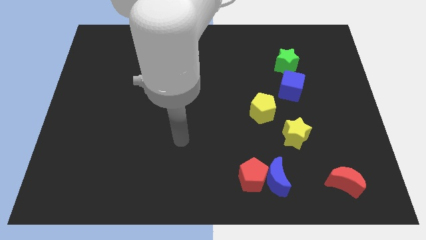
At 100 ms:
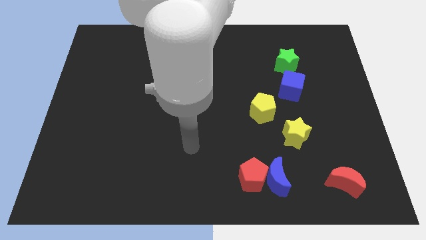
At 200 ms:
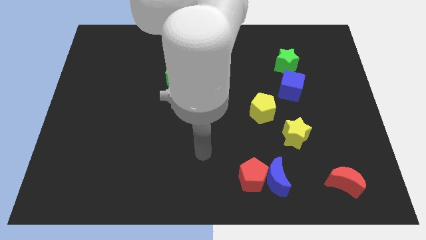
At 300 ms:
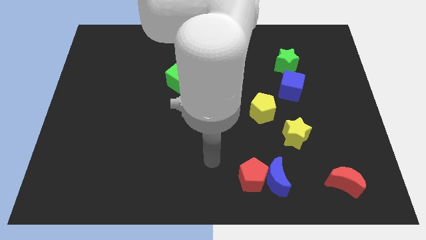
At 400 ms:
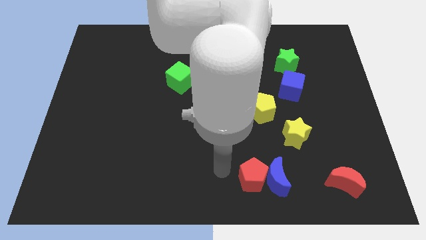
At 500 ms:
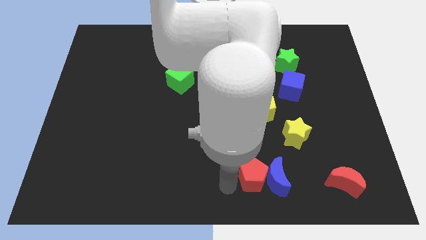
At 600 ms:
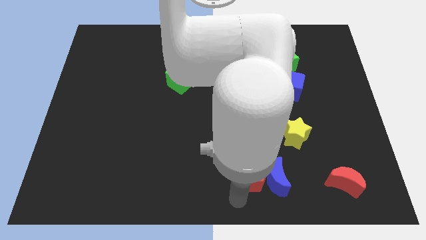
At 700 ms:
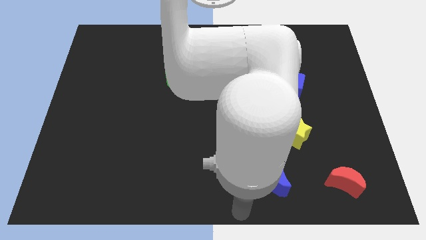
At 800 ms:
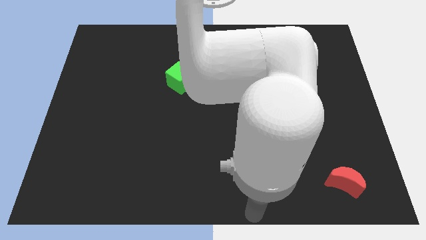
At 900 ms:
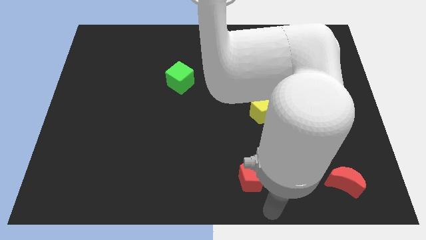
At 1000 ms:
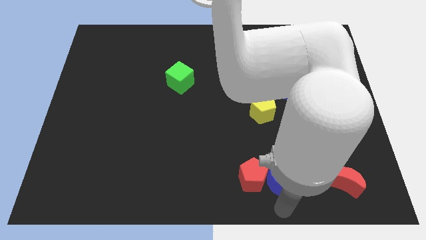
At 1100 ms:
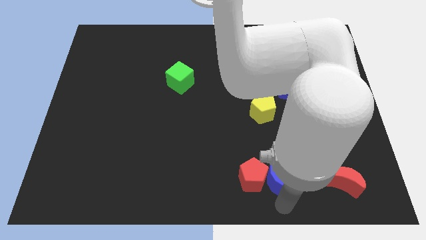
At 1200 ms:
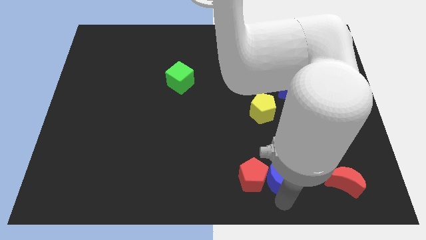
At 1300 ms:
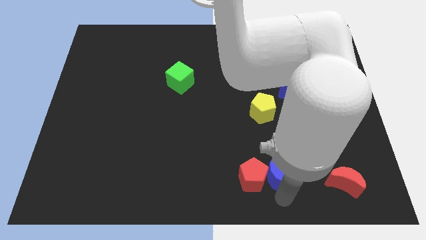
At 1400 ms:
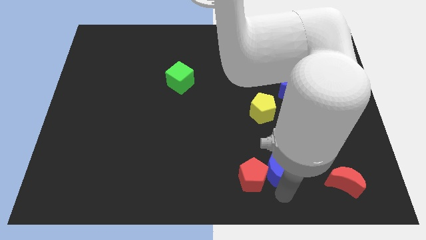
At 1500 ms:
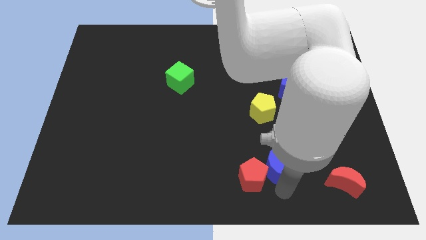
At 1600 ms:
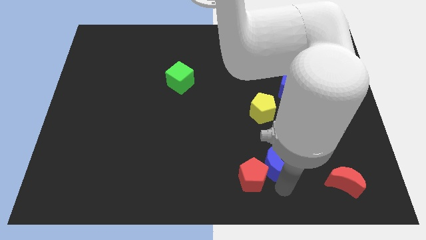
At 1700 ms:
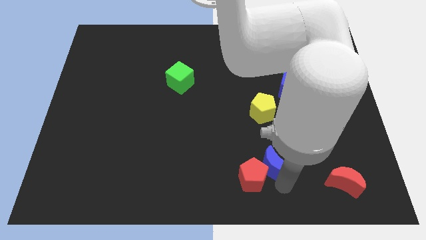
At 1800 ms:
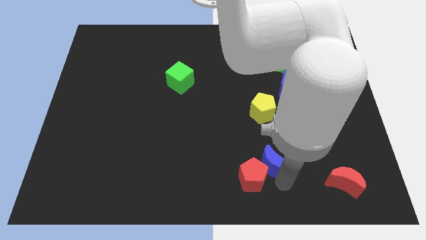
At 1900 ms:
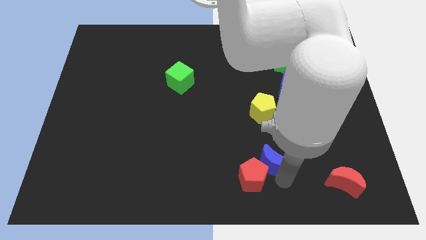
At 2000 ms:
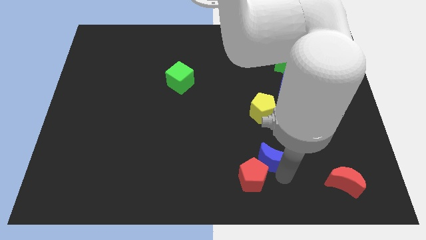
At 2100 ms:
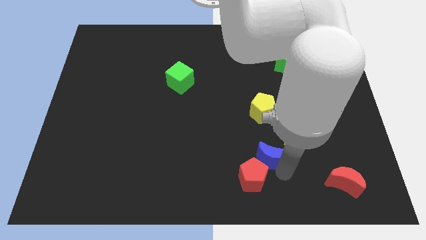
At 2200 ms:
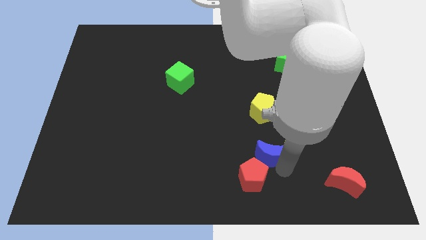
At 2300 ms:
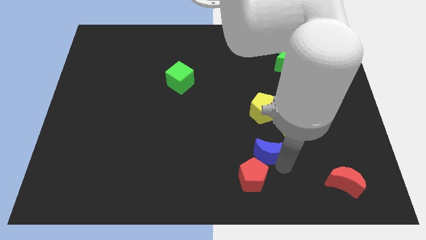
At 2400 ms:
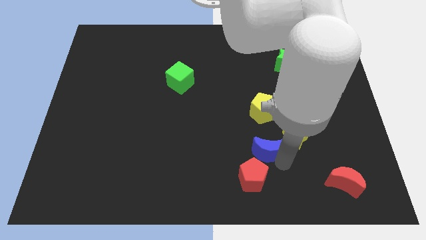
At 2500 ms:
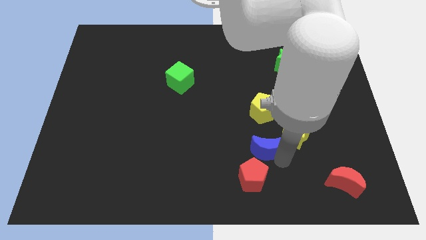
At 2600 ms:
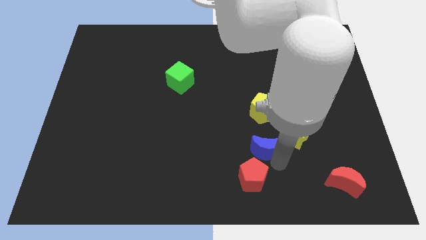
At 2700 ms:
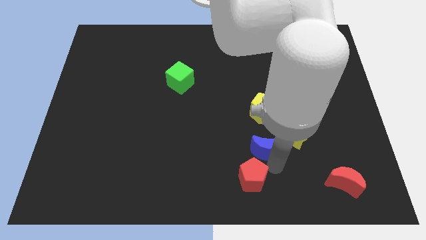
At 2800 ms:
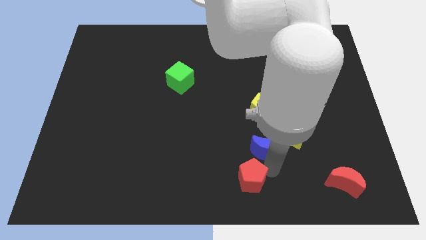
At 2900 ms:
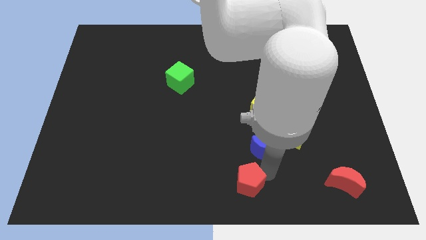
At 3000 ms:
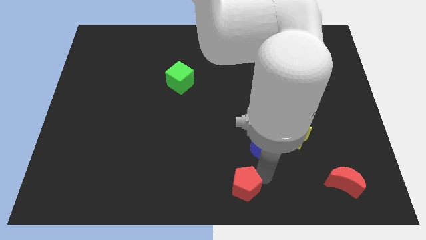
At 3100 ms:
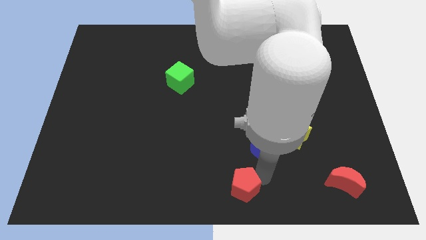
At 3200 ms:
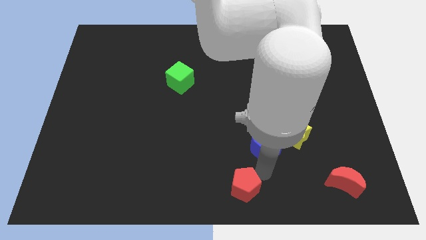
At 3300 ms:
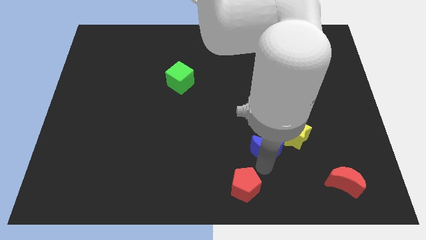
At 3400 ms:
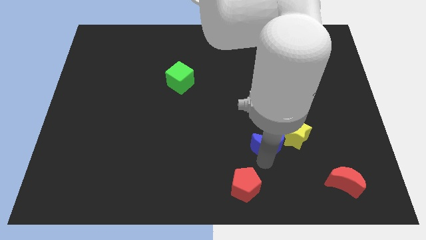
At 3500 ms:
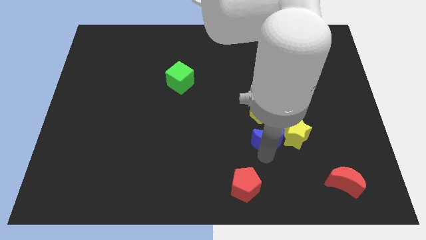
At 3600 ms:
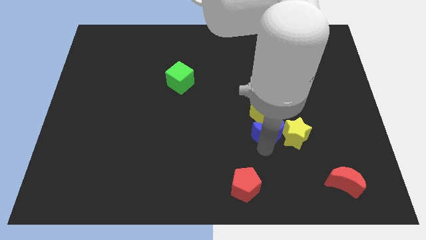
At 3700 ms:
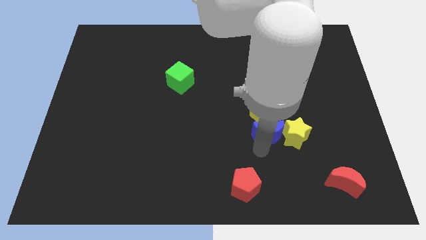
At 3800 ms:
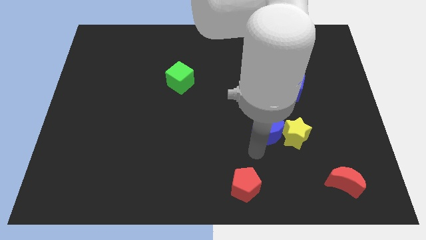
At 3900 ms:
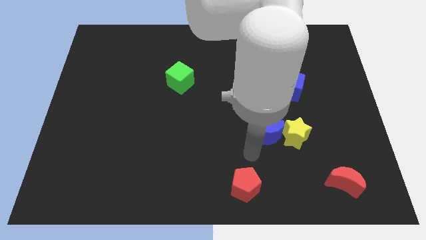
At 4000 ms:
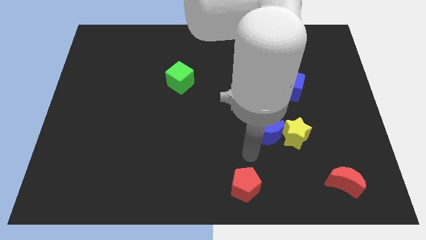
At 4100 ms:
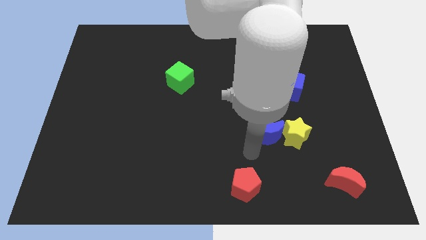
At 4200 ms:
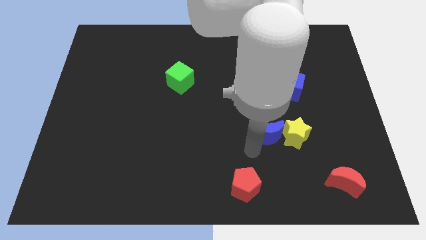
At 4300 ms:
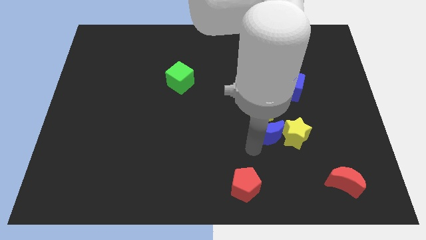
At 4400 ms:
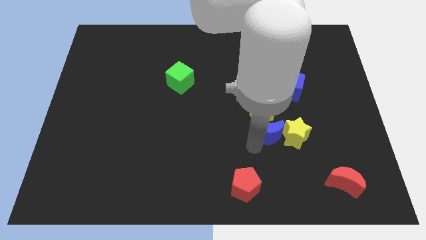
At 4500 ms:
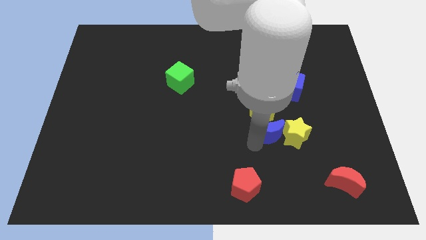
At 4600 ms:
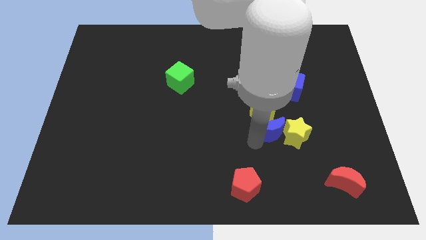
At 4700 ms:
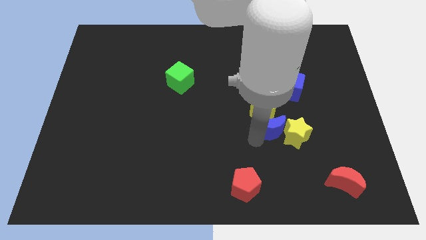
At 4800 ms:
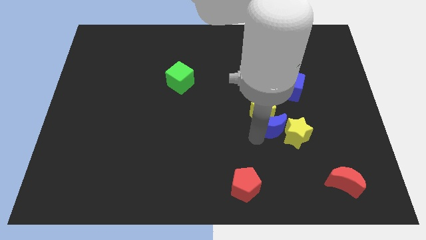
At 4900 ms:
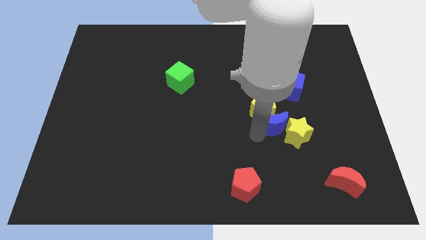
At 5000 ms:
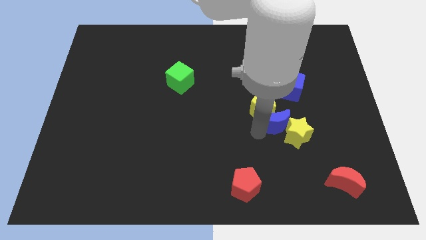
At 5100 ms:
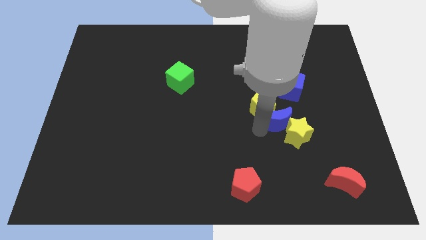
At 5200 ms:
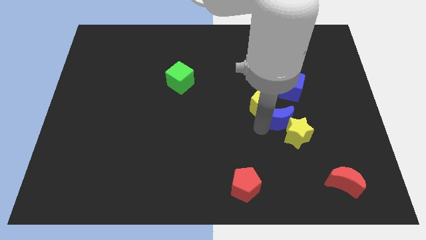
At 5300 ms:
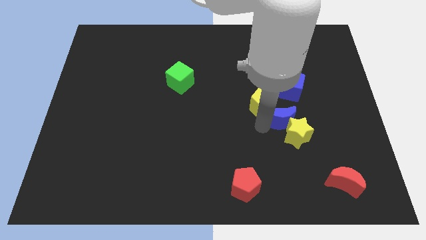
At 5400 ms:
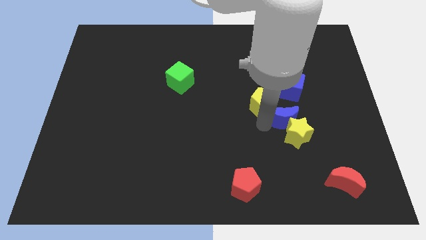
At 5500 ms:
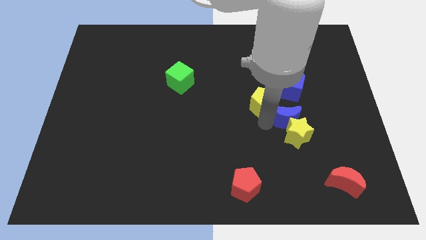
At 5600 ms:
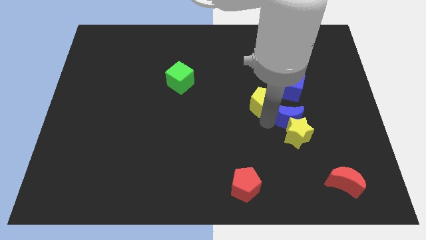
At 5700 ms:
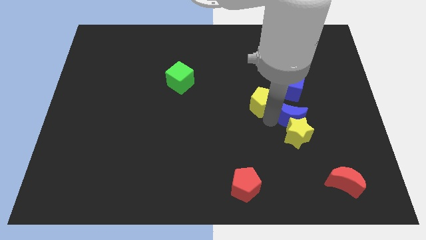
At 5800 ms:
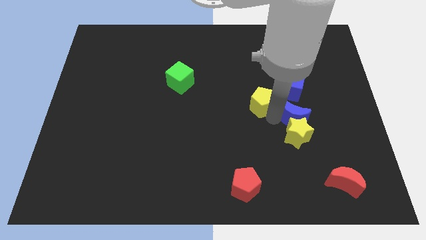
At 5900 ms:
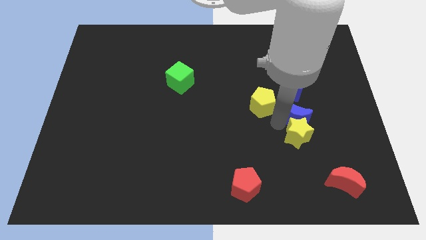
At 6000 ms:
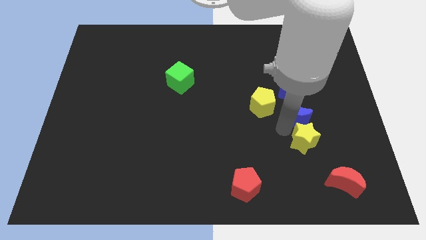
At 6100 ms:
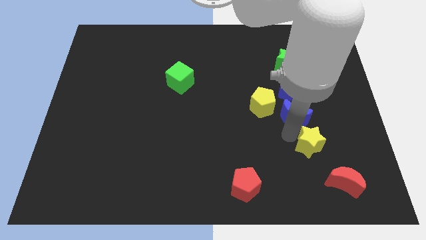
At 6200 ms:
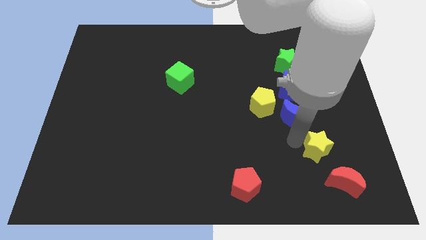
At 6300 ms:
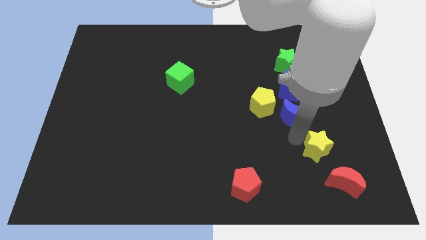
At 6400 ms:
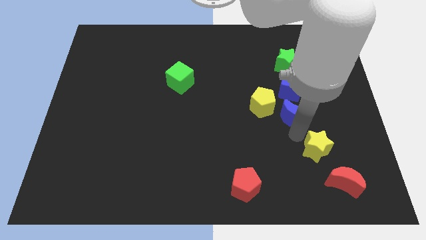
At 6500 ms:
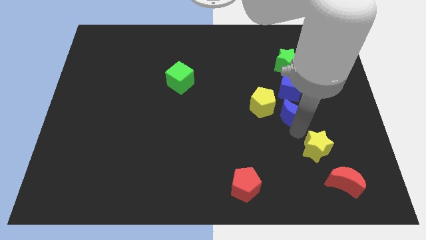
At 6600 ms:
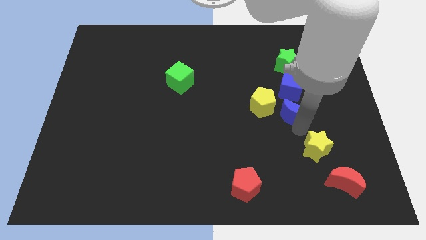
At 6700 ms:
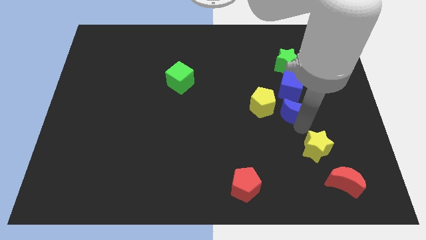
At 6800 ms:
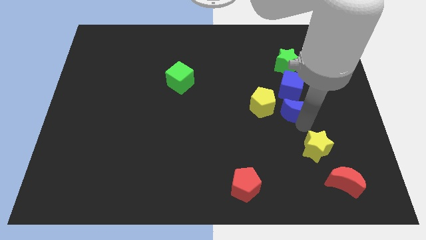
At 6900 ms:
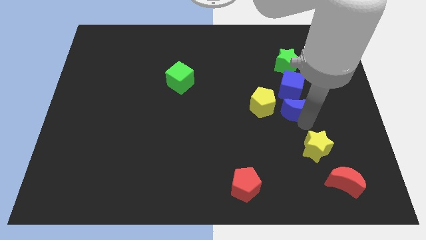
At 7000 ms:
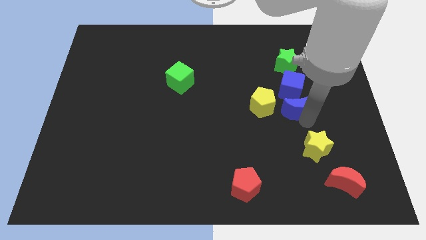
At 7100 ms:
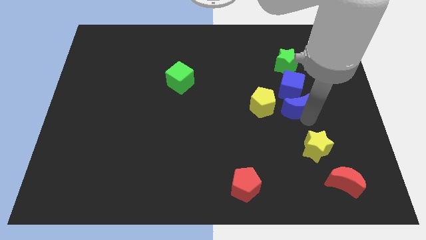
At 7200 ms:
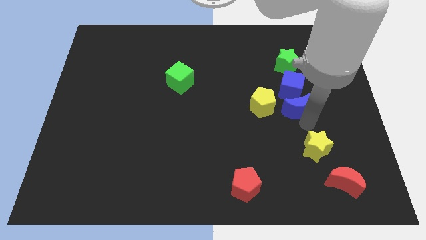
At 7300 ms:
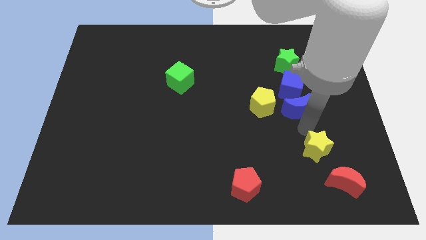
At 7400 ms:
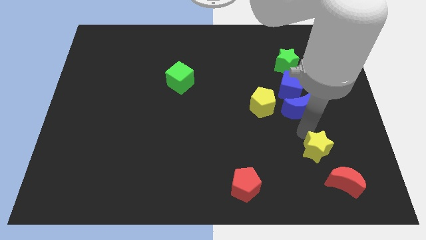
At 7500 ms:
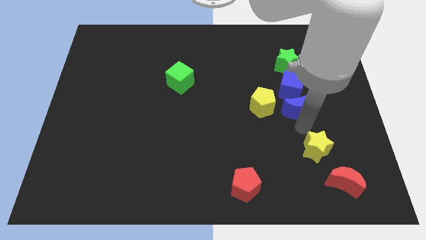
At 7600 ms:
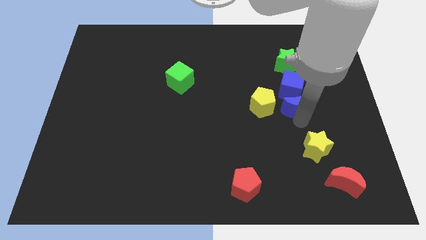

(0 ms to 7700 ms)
put the blue moon to the blue cube
